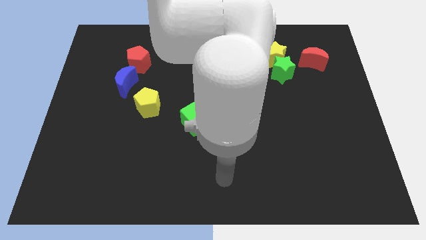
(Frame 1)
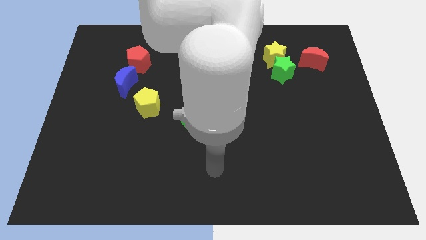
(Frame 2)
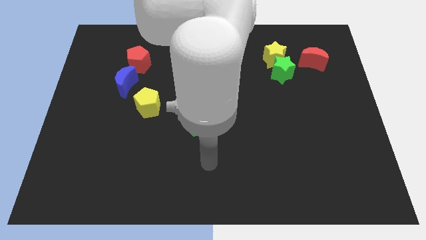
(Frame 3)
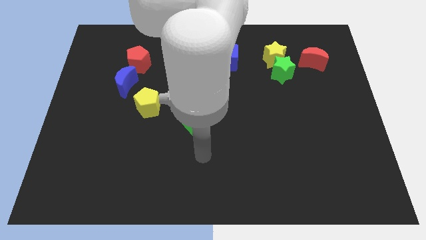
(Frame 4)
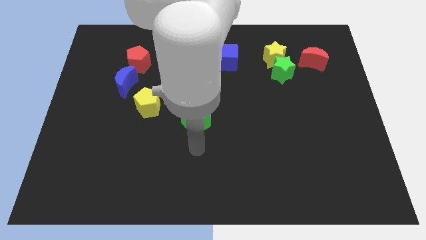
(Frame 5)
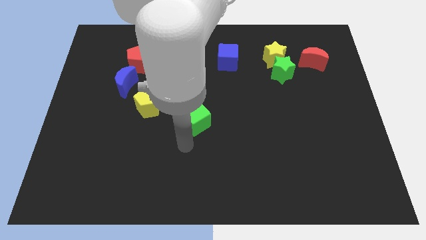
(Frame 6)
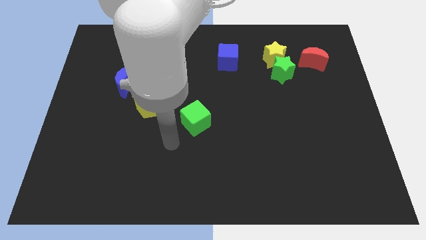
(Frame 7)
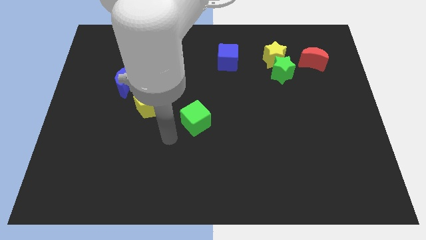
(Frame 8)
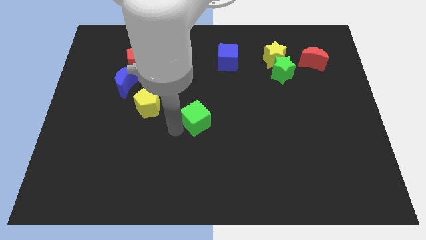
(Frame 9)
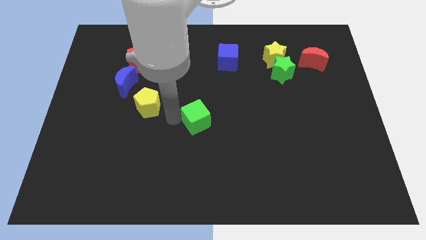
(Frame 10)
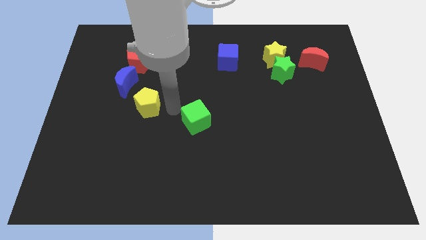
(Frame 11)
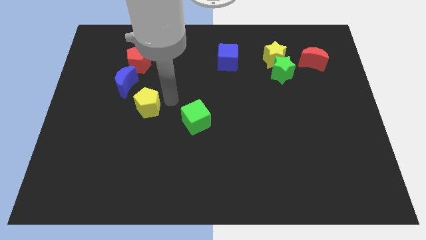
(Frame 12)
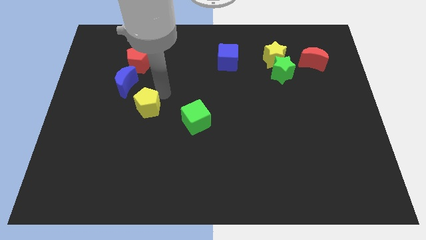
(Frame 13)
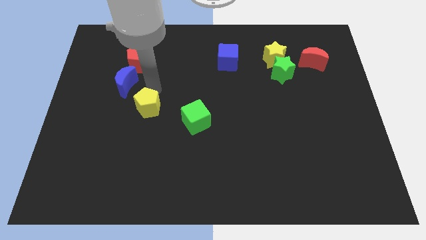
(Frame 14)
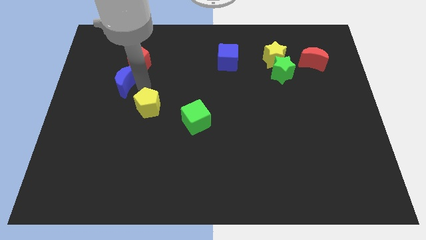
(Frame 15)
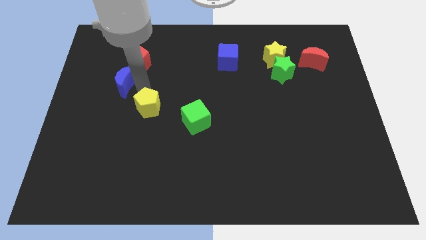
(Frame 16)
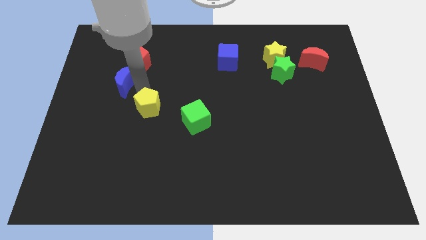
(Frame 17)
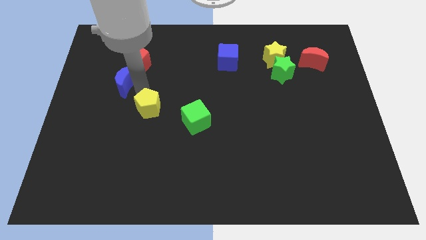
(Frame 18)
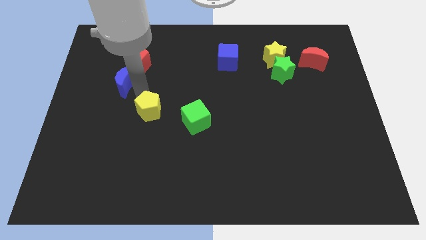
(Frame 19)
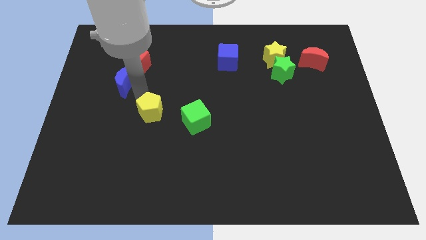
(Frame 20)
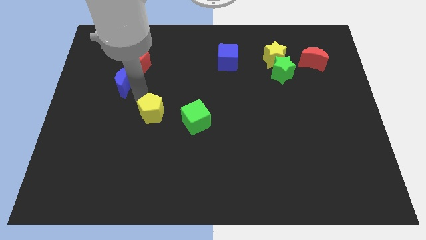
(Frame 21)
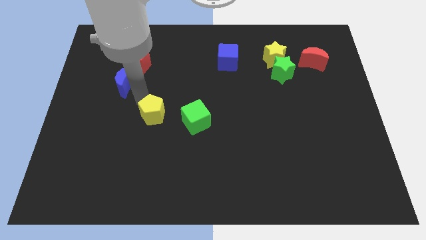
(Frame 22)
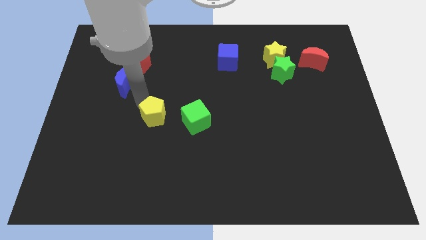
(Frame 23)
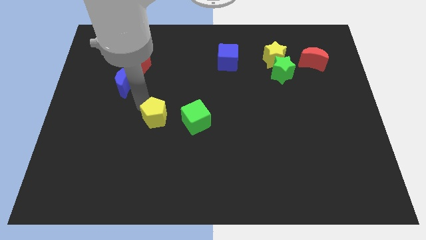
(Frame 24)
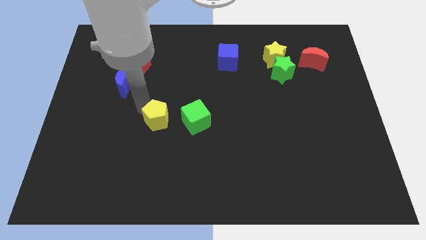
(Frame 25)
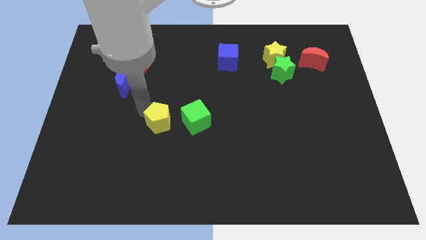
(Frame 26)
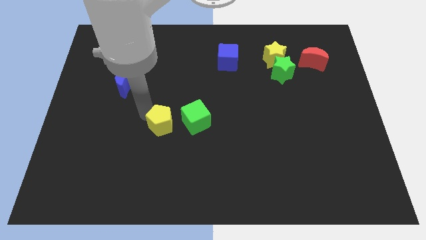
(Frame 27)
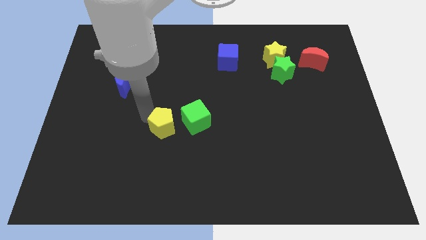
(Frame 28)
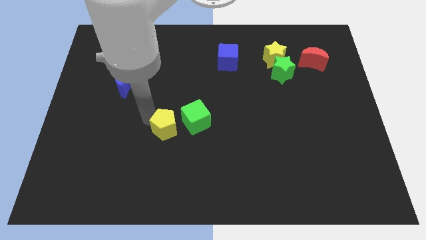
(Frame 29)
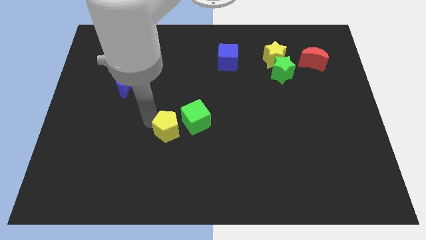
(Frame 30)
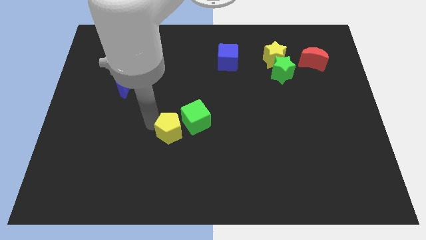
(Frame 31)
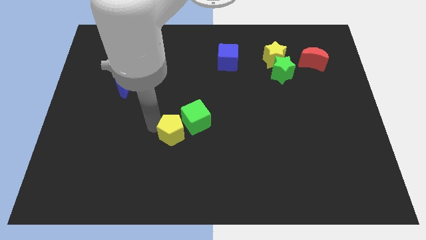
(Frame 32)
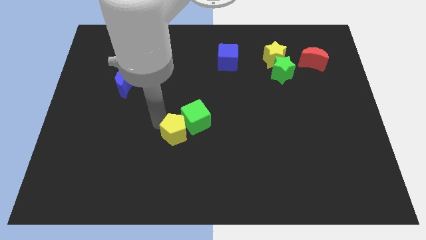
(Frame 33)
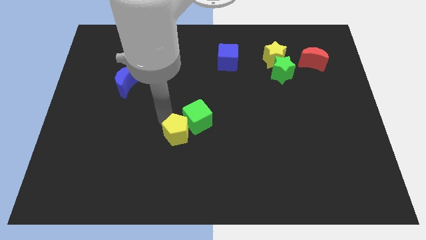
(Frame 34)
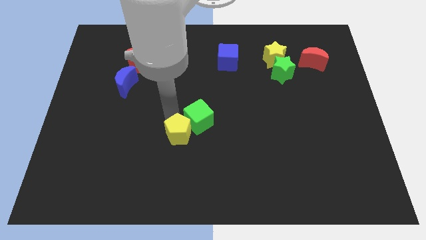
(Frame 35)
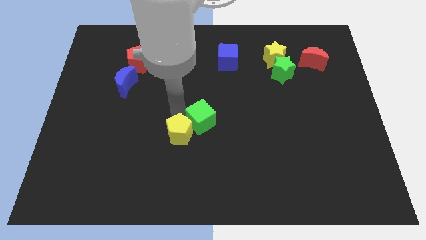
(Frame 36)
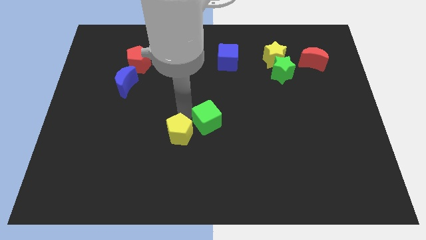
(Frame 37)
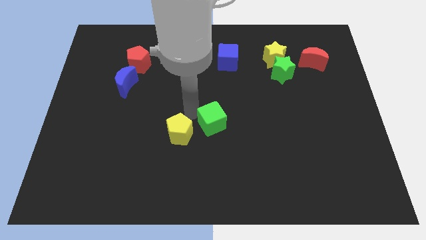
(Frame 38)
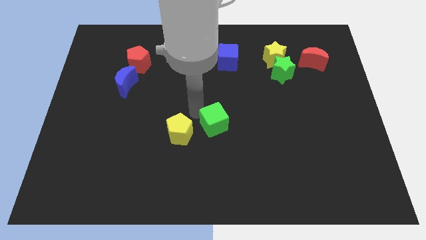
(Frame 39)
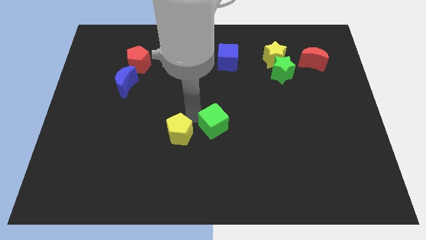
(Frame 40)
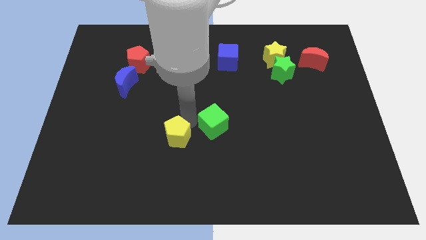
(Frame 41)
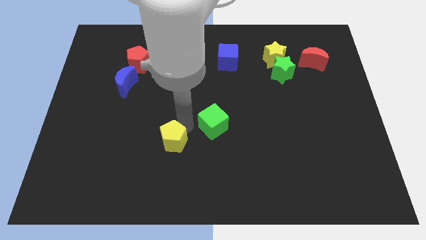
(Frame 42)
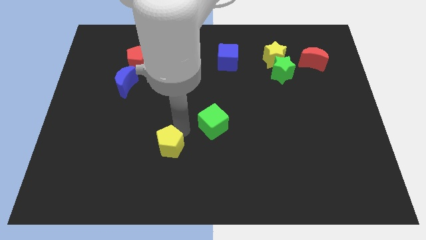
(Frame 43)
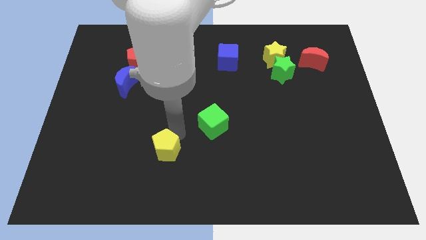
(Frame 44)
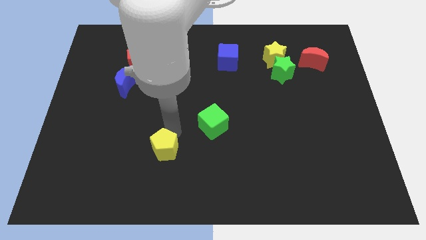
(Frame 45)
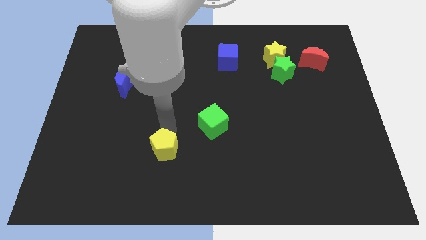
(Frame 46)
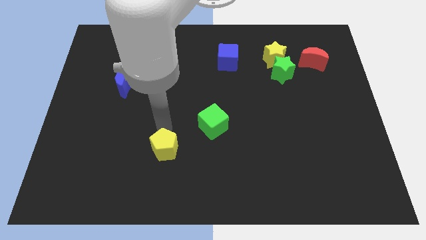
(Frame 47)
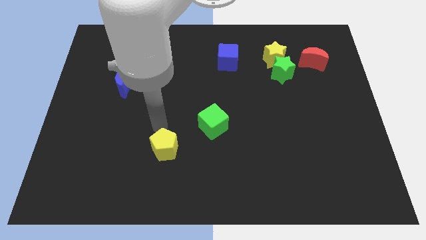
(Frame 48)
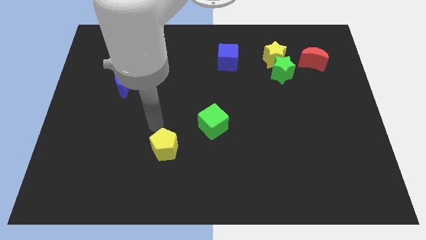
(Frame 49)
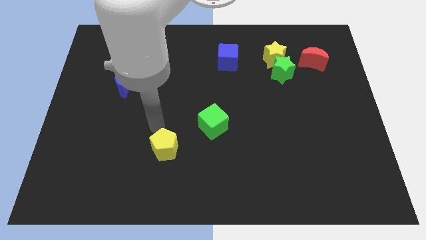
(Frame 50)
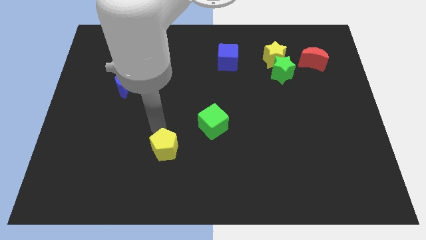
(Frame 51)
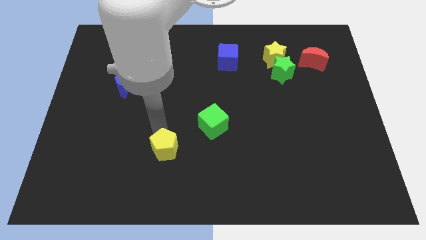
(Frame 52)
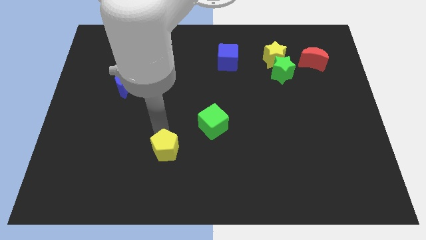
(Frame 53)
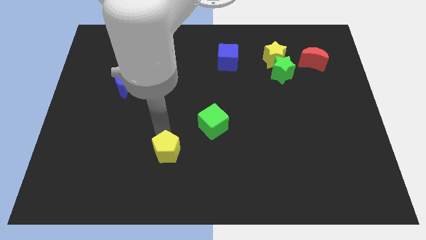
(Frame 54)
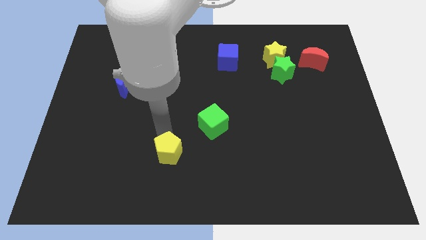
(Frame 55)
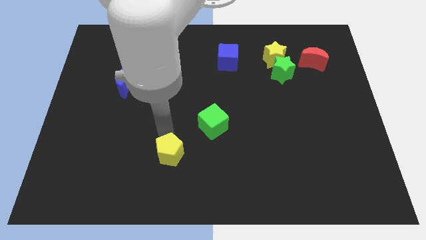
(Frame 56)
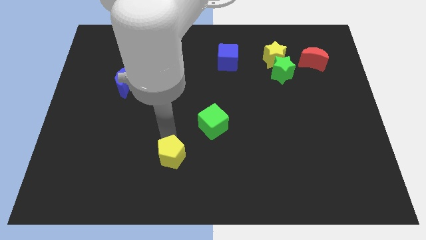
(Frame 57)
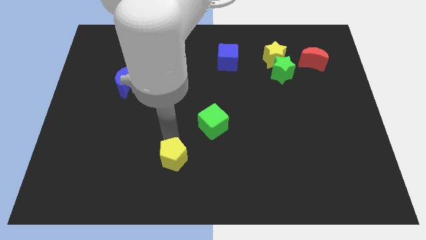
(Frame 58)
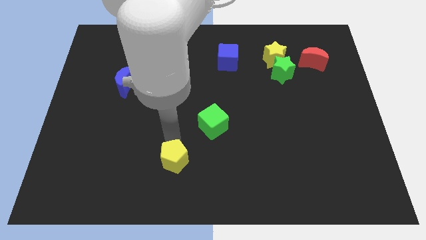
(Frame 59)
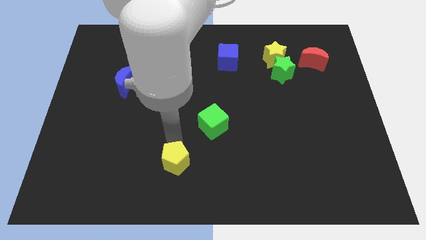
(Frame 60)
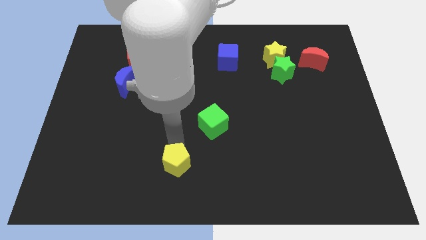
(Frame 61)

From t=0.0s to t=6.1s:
slide the yellow pentagon to the bottom side

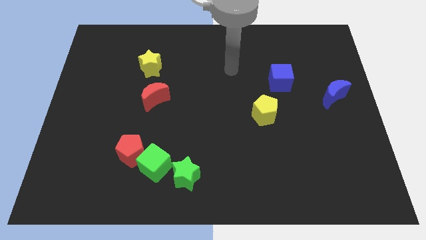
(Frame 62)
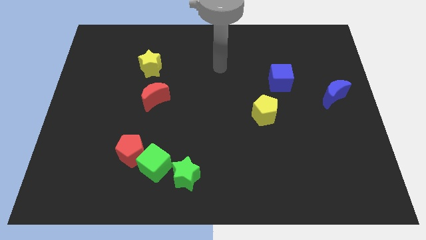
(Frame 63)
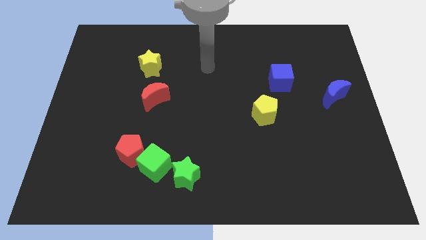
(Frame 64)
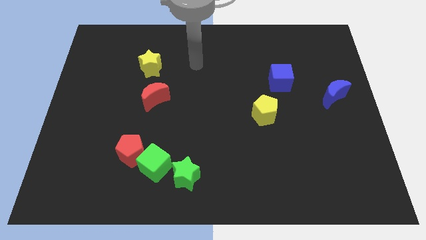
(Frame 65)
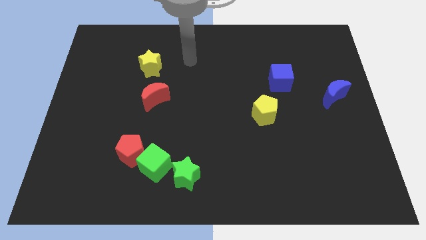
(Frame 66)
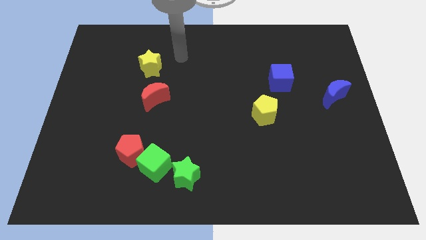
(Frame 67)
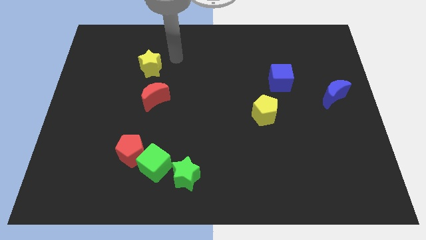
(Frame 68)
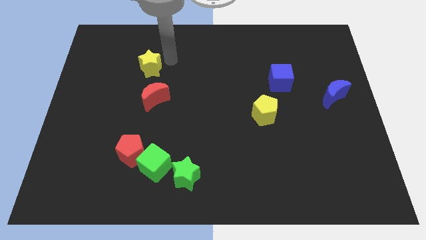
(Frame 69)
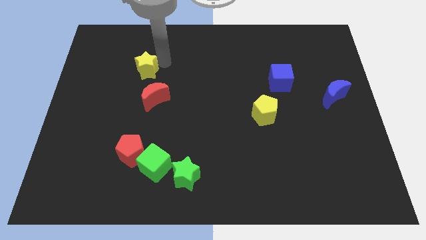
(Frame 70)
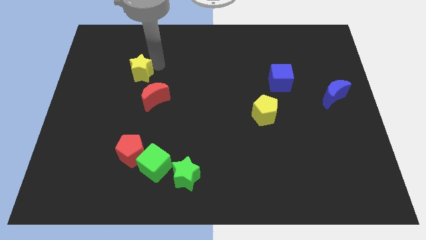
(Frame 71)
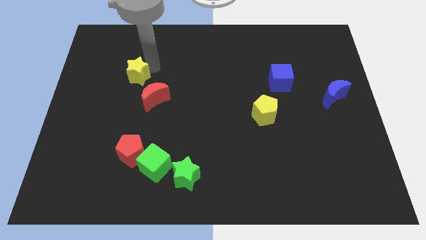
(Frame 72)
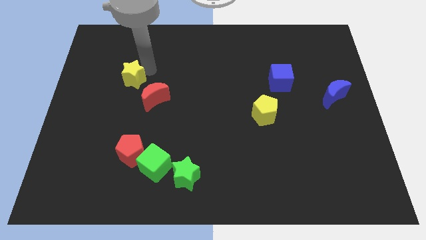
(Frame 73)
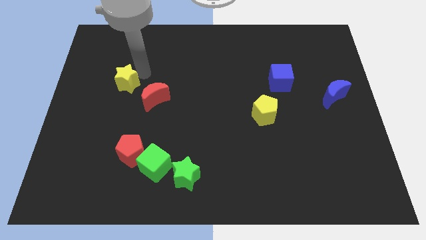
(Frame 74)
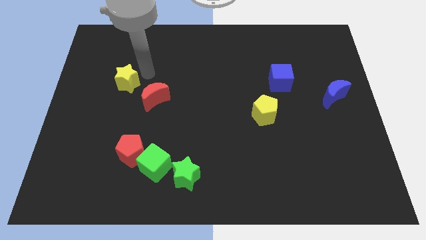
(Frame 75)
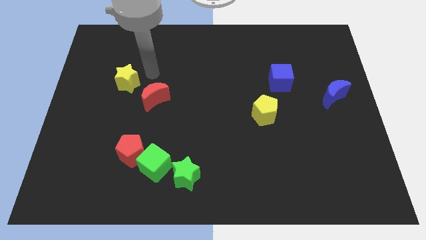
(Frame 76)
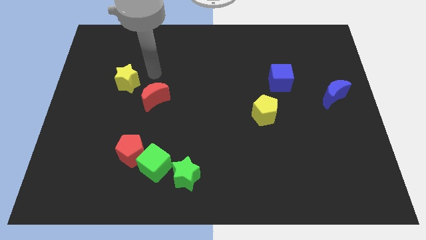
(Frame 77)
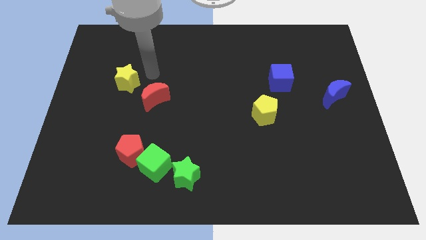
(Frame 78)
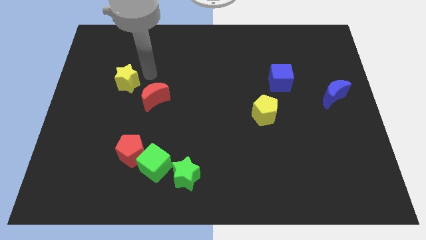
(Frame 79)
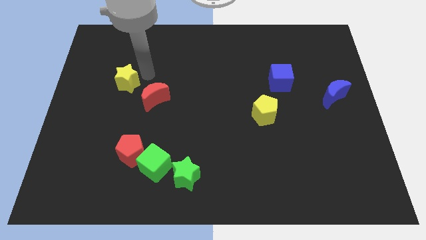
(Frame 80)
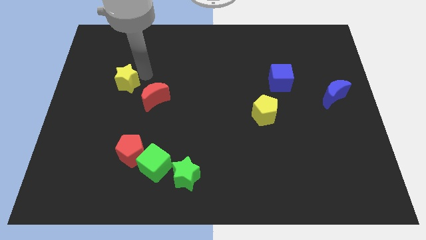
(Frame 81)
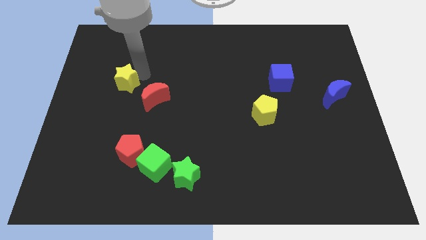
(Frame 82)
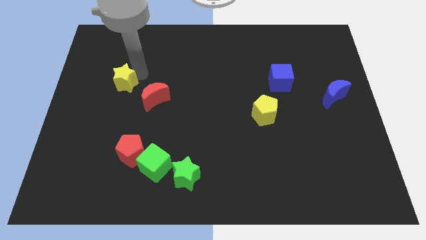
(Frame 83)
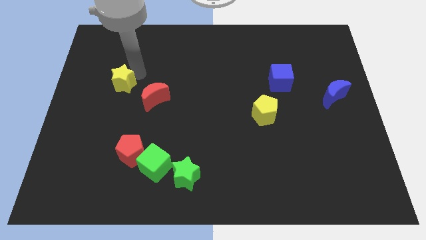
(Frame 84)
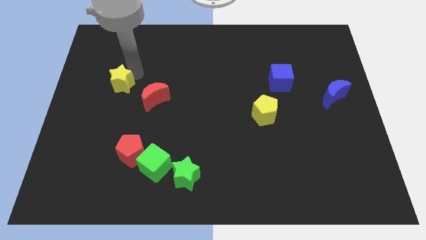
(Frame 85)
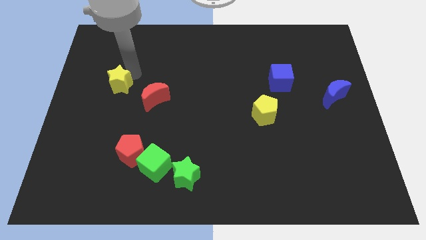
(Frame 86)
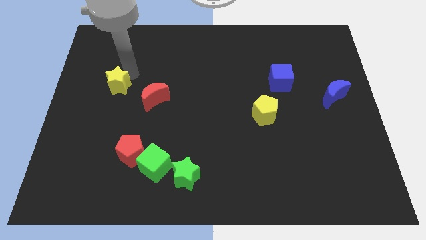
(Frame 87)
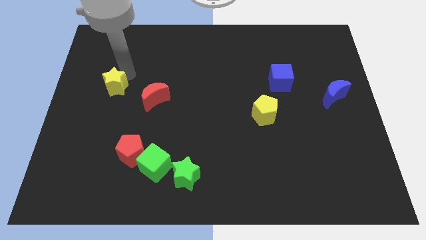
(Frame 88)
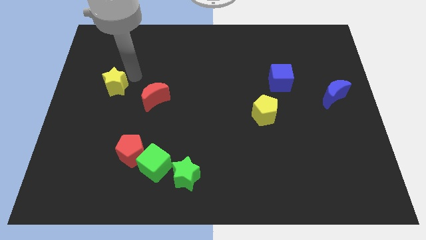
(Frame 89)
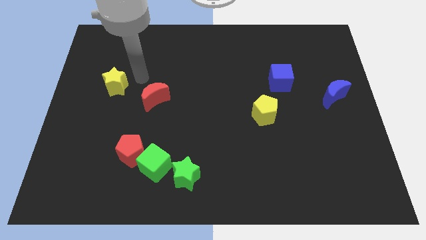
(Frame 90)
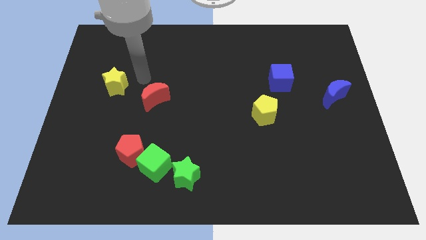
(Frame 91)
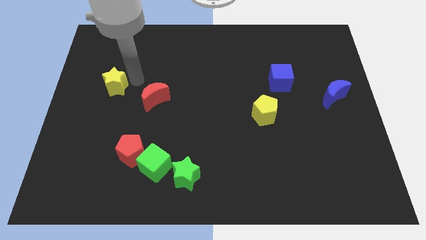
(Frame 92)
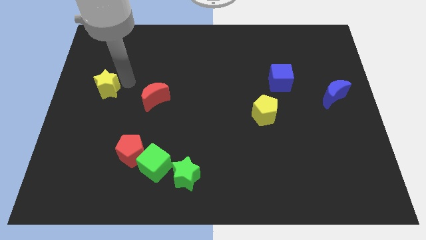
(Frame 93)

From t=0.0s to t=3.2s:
push the yellow star to the left side of the board
